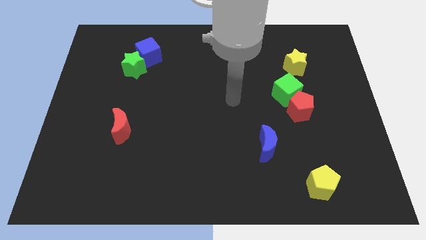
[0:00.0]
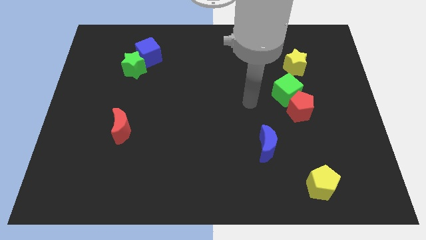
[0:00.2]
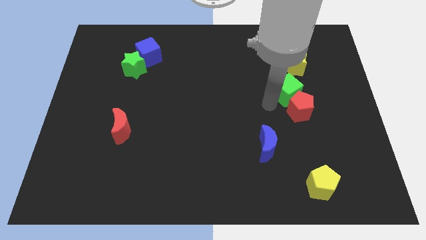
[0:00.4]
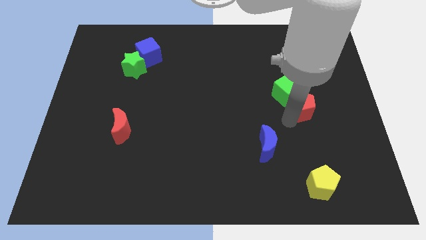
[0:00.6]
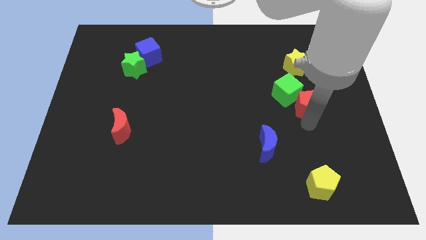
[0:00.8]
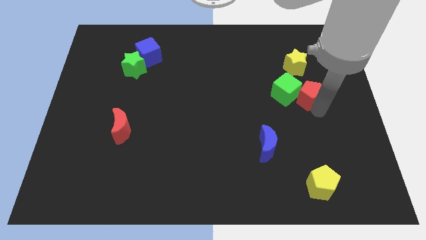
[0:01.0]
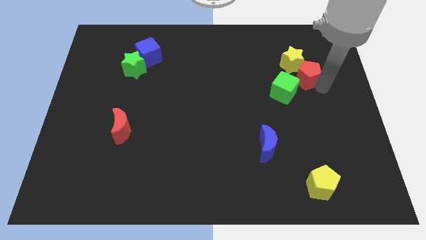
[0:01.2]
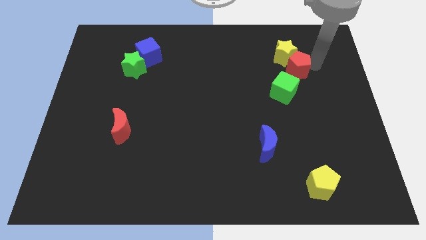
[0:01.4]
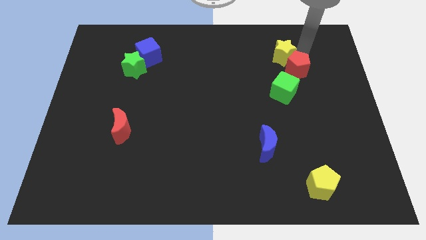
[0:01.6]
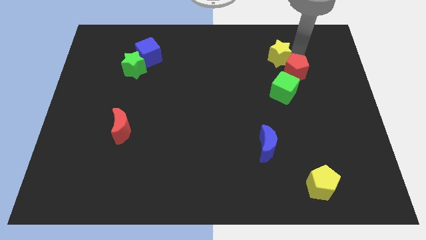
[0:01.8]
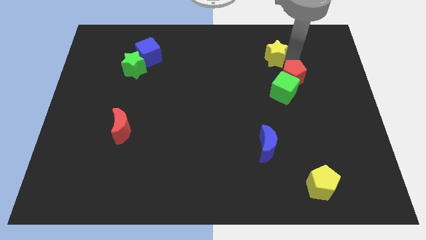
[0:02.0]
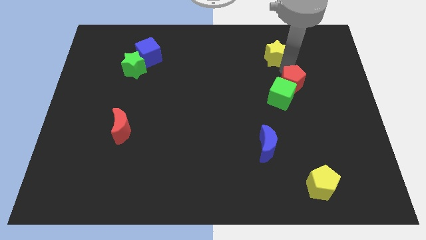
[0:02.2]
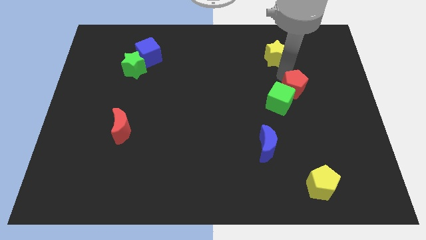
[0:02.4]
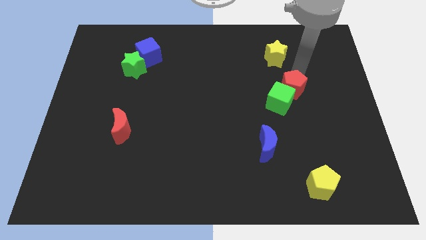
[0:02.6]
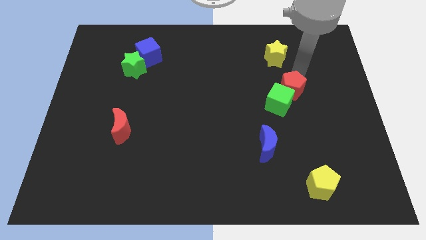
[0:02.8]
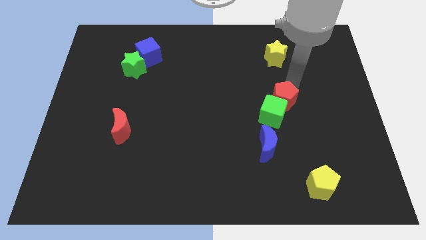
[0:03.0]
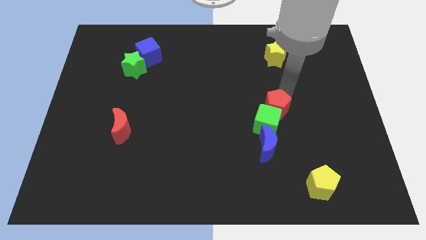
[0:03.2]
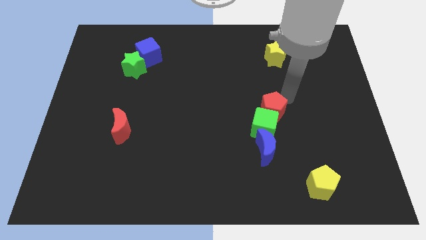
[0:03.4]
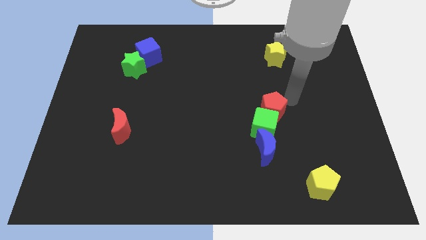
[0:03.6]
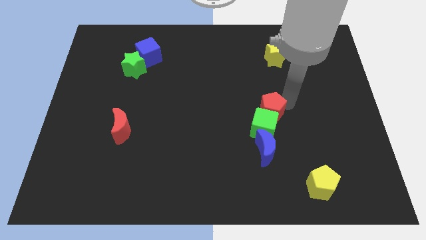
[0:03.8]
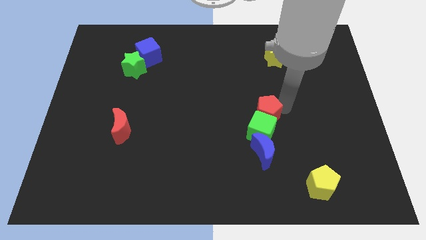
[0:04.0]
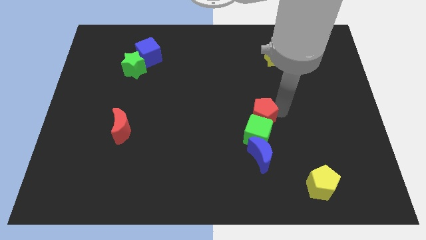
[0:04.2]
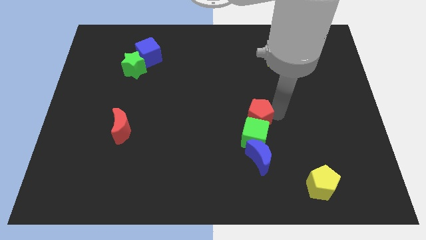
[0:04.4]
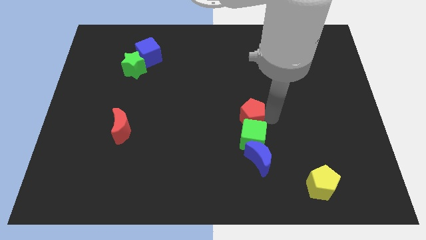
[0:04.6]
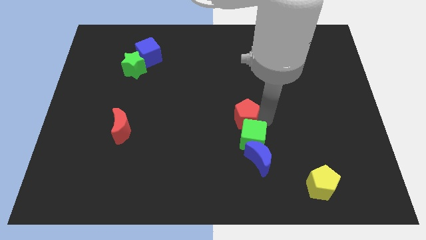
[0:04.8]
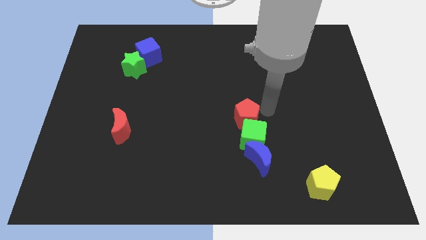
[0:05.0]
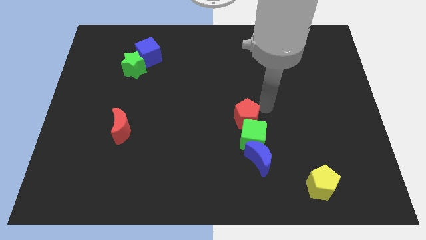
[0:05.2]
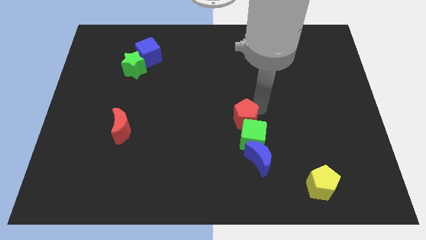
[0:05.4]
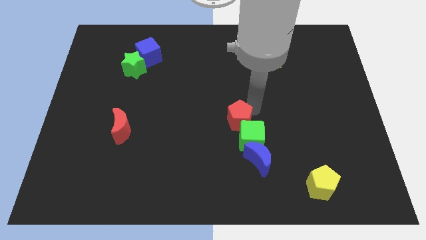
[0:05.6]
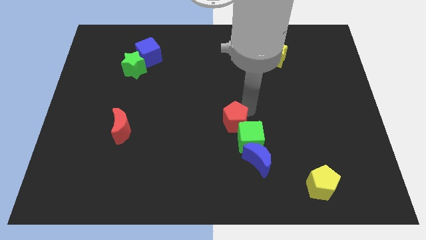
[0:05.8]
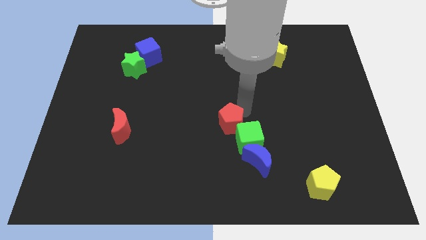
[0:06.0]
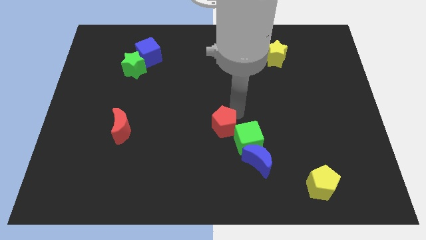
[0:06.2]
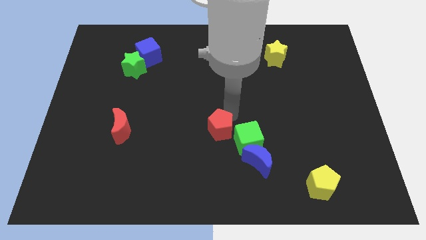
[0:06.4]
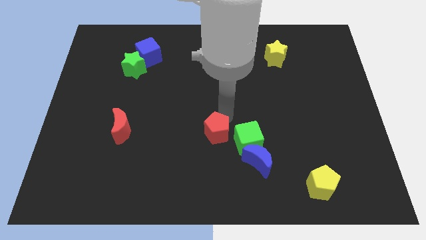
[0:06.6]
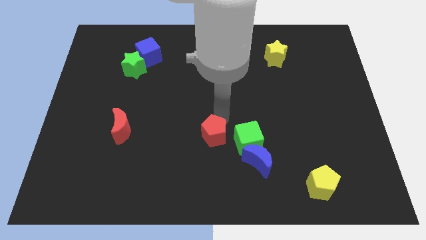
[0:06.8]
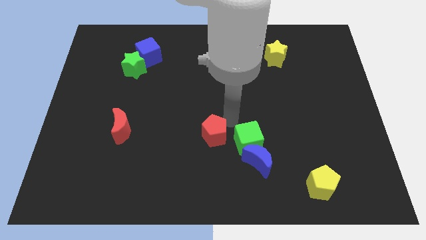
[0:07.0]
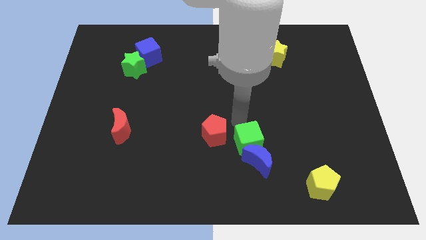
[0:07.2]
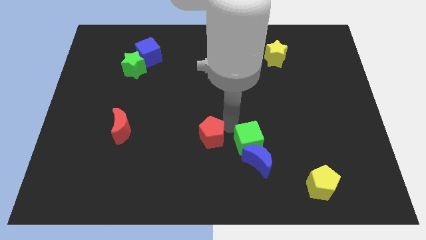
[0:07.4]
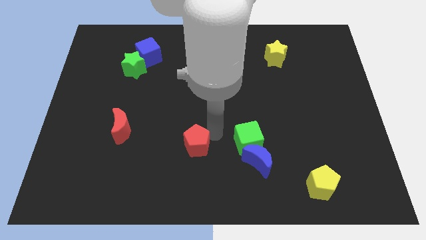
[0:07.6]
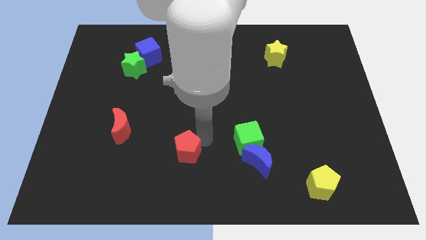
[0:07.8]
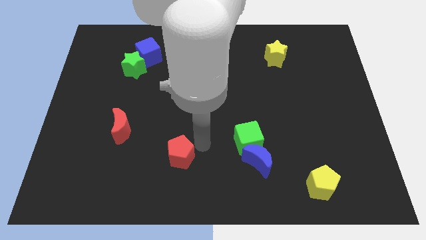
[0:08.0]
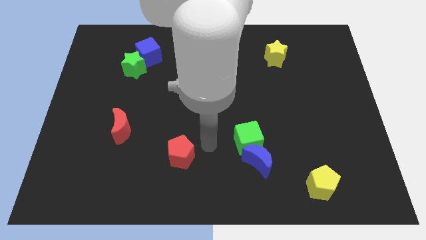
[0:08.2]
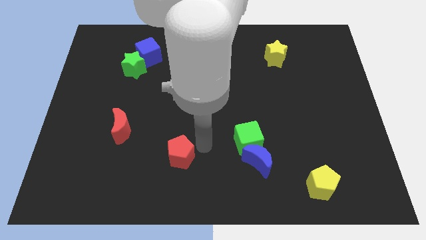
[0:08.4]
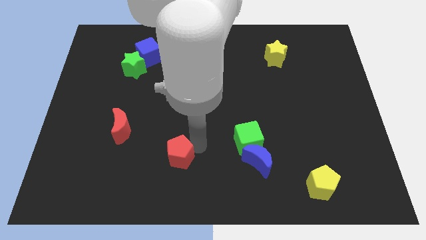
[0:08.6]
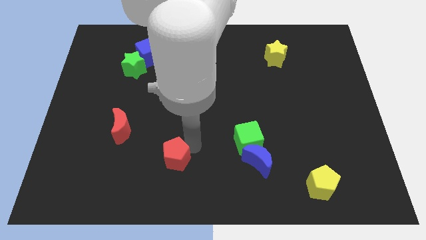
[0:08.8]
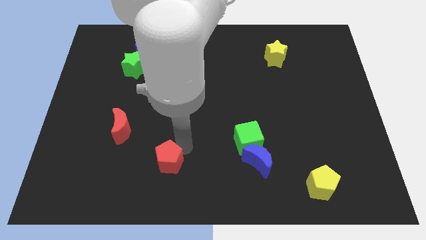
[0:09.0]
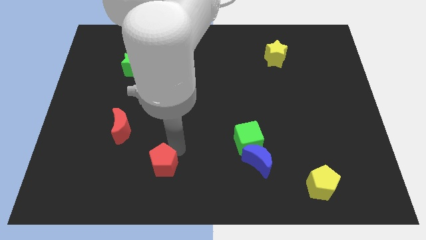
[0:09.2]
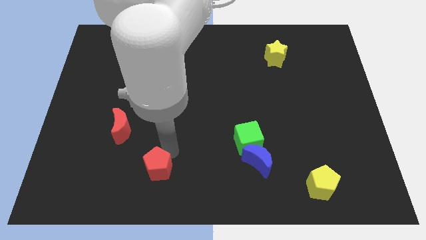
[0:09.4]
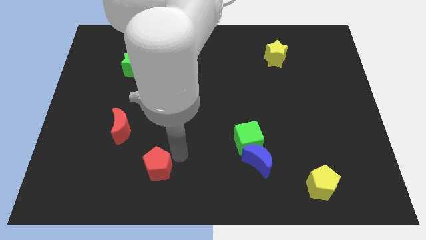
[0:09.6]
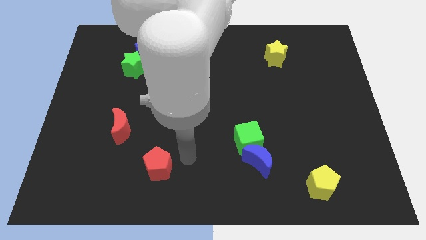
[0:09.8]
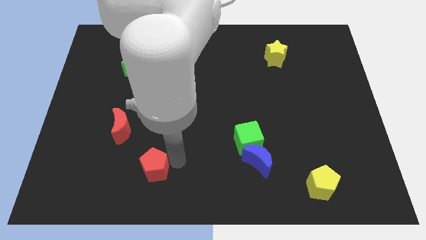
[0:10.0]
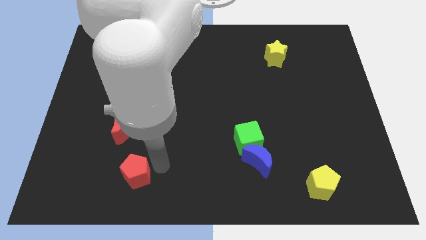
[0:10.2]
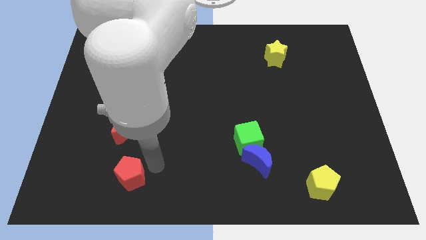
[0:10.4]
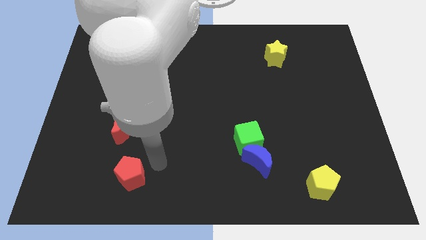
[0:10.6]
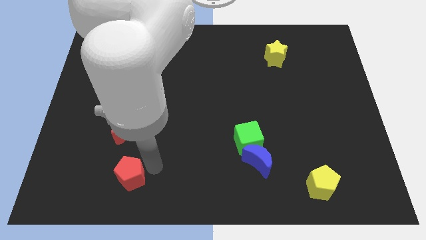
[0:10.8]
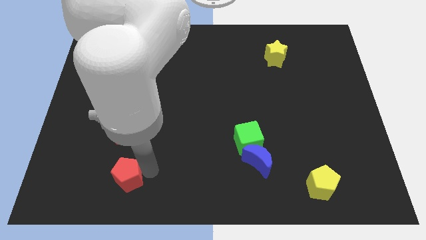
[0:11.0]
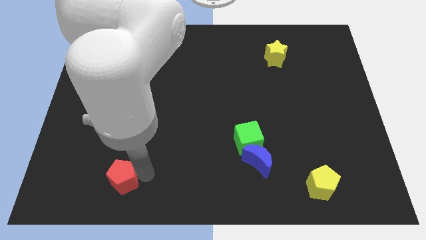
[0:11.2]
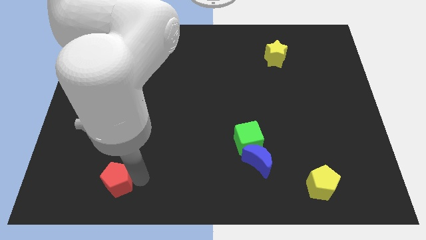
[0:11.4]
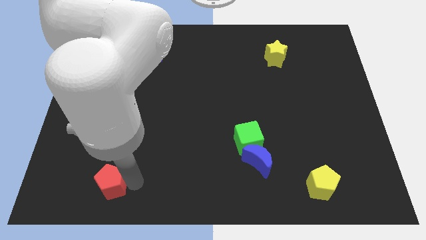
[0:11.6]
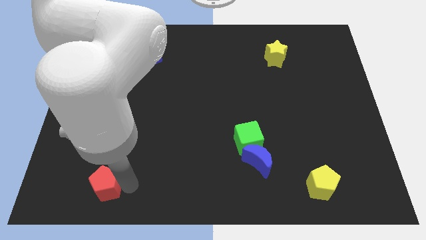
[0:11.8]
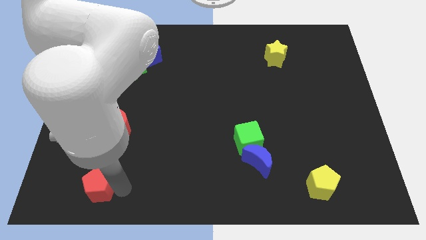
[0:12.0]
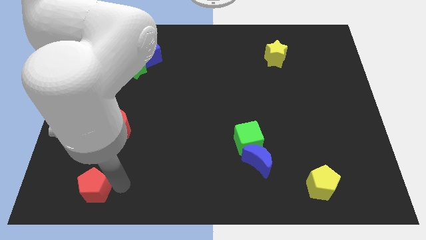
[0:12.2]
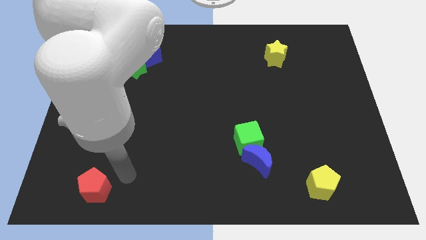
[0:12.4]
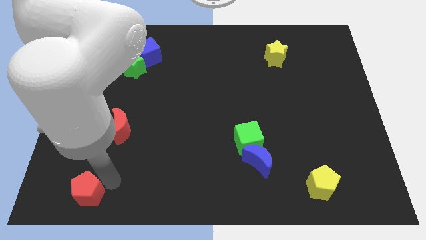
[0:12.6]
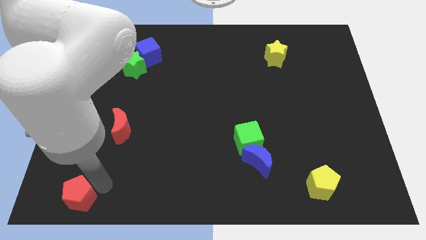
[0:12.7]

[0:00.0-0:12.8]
slide the red pentagon to the bottom left of the board
